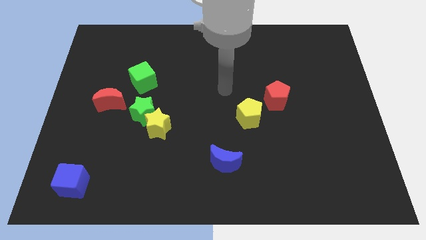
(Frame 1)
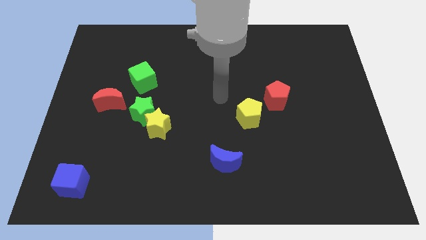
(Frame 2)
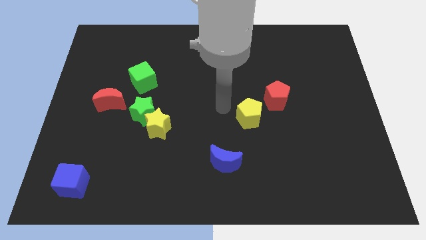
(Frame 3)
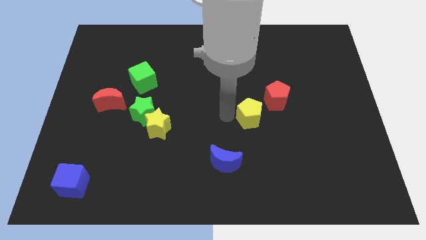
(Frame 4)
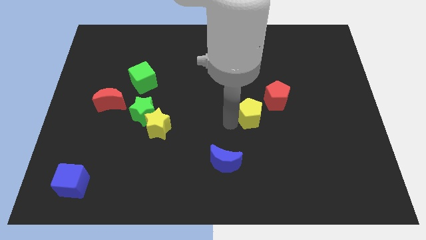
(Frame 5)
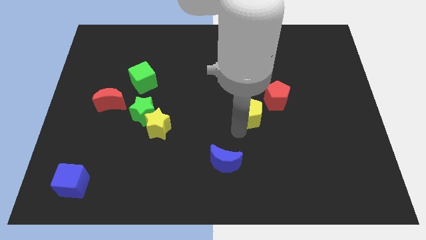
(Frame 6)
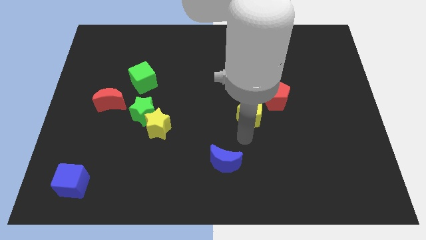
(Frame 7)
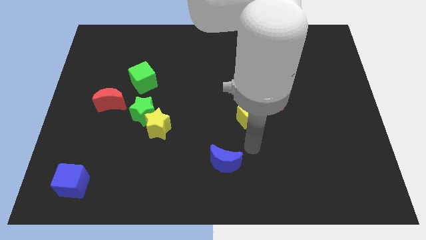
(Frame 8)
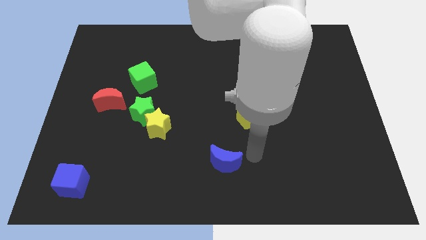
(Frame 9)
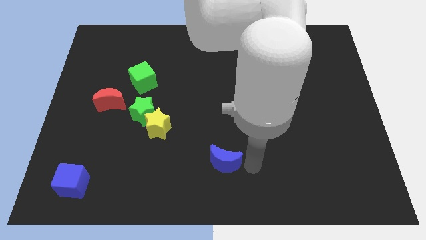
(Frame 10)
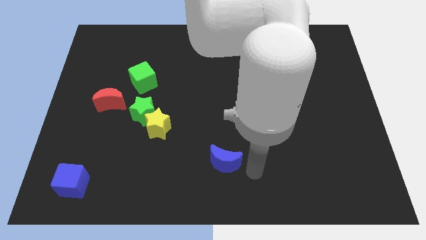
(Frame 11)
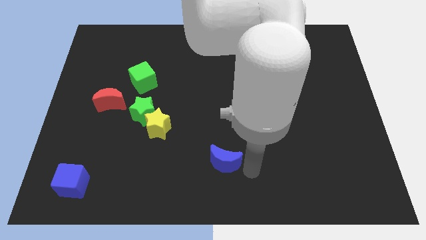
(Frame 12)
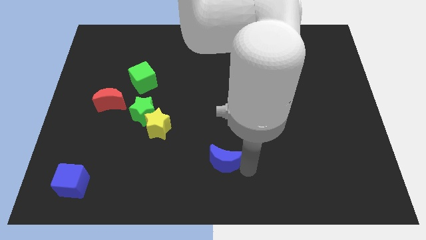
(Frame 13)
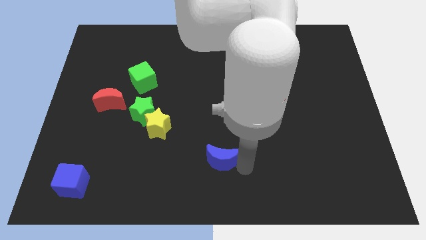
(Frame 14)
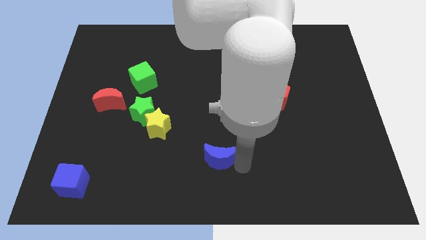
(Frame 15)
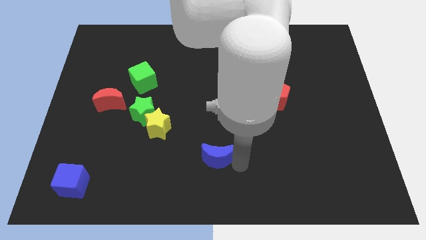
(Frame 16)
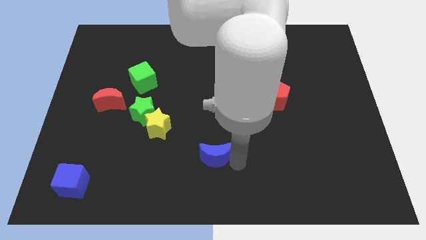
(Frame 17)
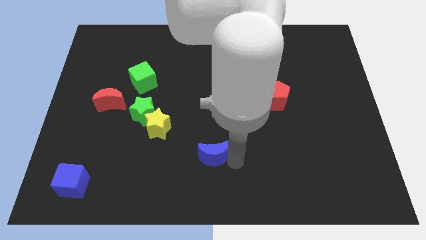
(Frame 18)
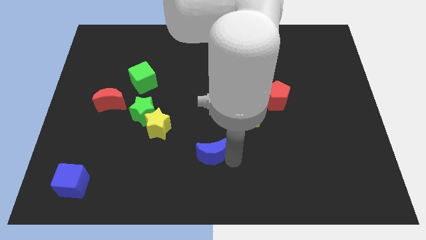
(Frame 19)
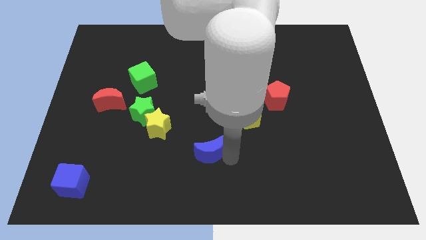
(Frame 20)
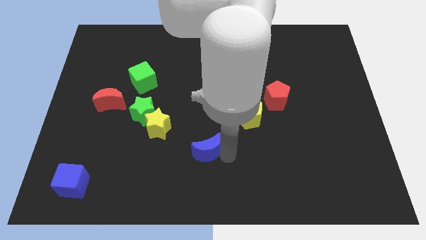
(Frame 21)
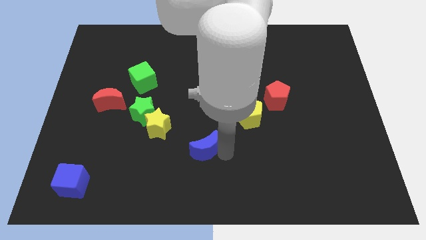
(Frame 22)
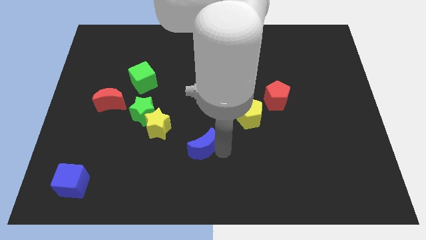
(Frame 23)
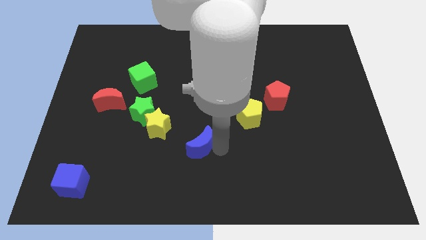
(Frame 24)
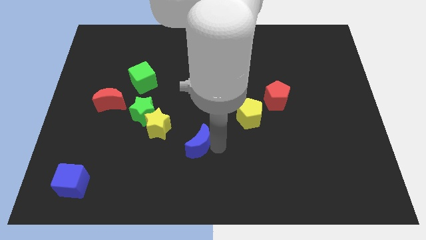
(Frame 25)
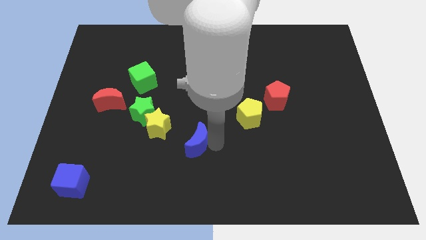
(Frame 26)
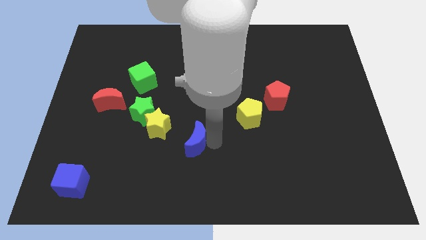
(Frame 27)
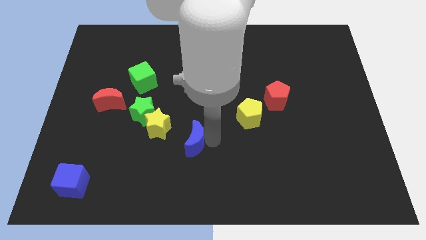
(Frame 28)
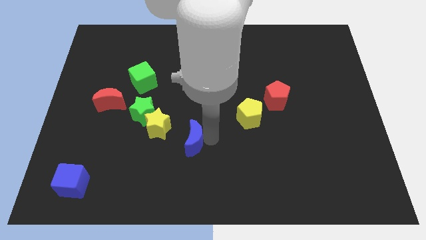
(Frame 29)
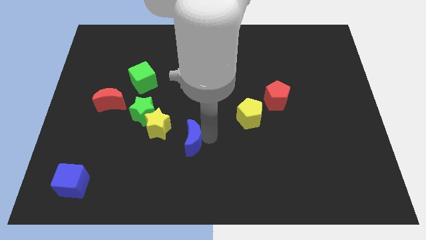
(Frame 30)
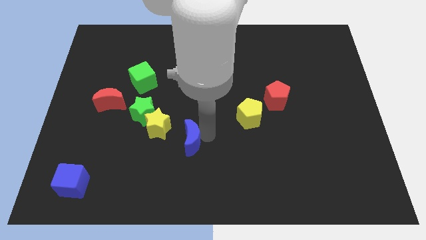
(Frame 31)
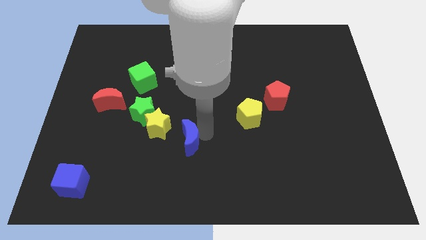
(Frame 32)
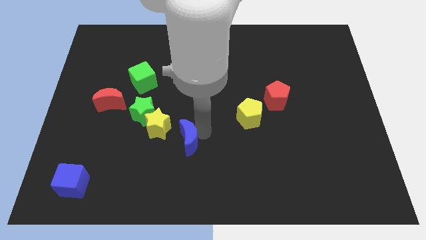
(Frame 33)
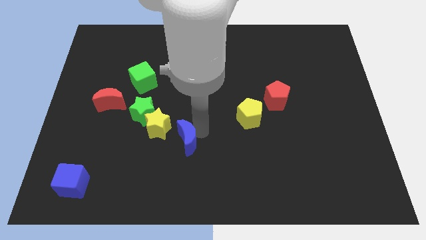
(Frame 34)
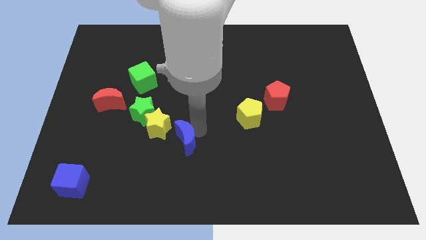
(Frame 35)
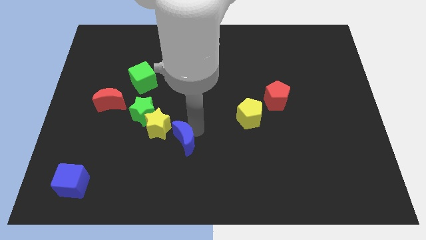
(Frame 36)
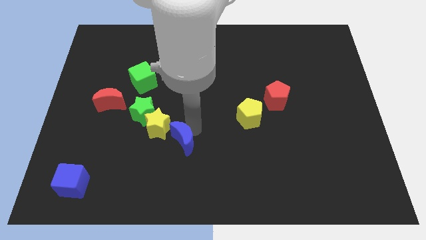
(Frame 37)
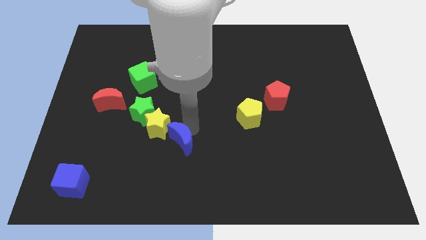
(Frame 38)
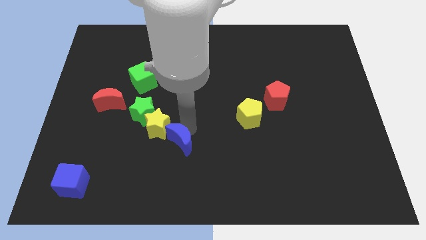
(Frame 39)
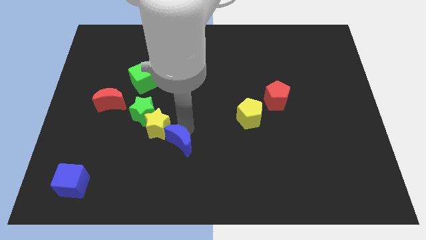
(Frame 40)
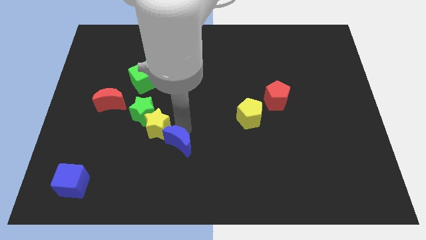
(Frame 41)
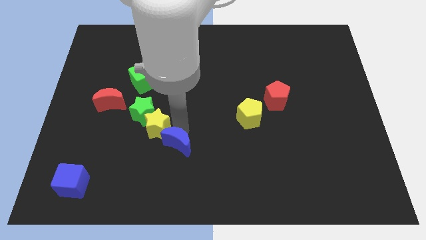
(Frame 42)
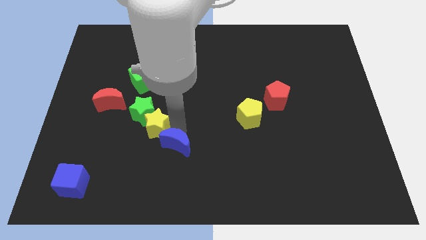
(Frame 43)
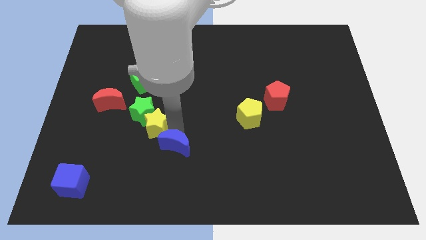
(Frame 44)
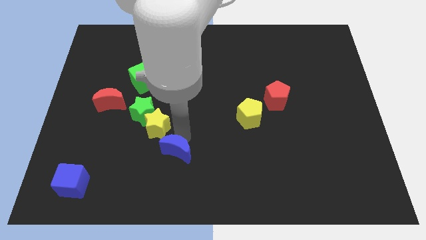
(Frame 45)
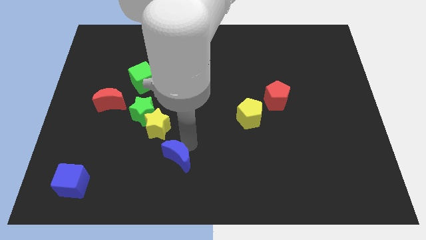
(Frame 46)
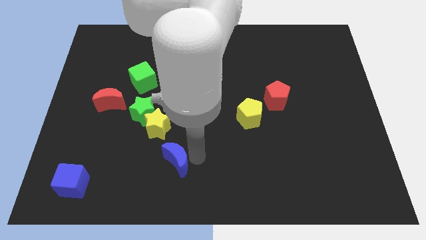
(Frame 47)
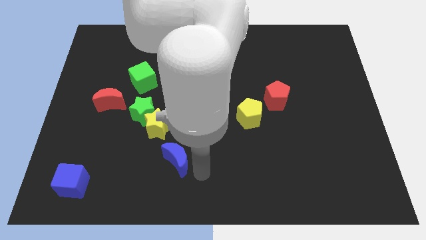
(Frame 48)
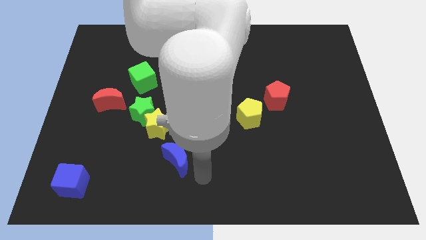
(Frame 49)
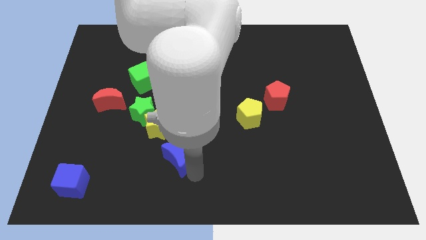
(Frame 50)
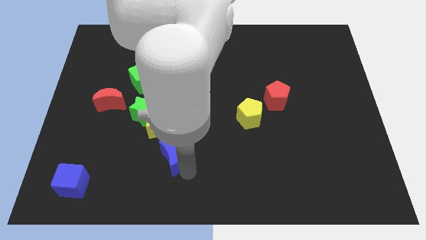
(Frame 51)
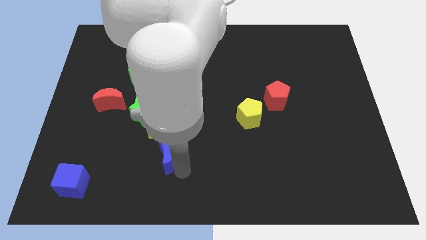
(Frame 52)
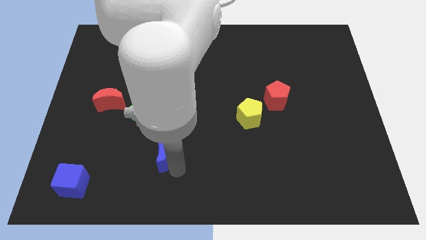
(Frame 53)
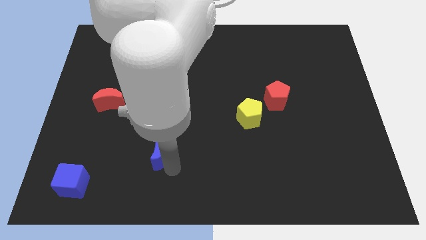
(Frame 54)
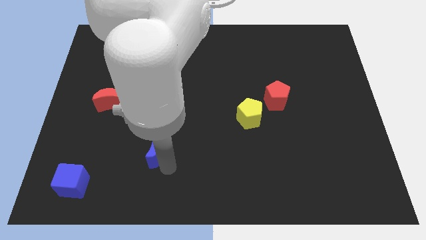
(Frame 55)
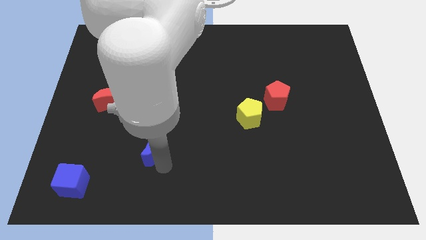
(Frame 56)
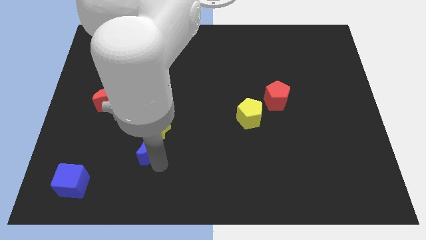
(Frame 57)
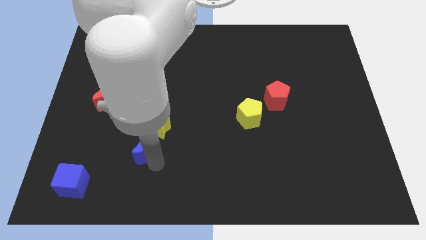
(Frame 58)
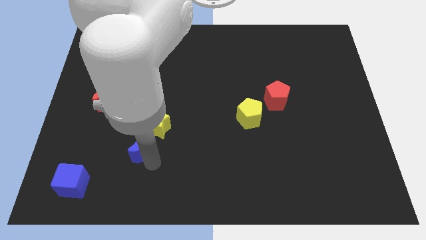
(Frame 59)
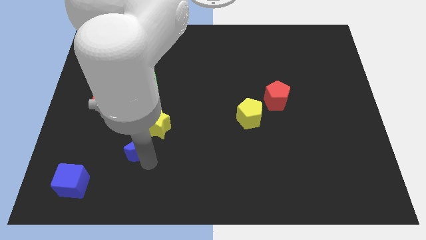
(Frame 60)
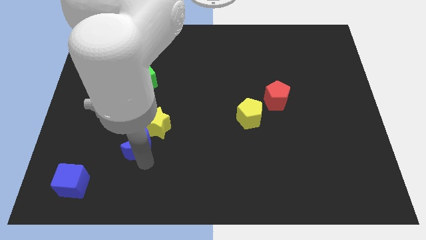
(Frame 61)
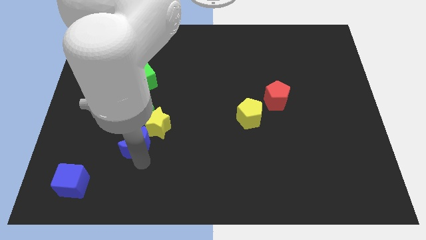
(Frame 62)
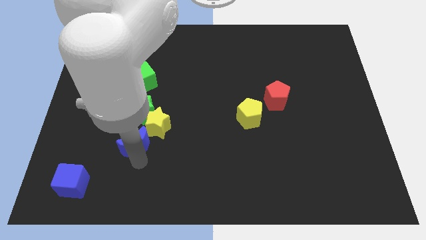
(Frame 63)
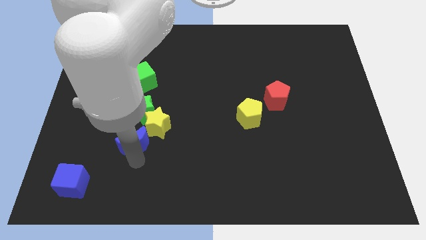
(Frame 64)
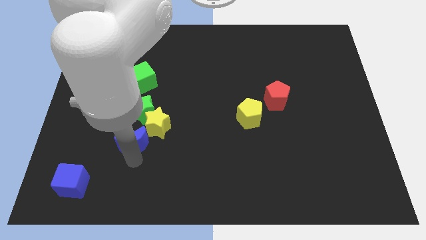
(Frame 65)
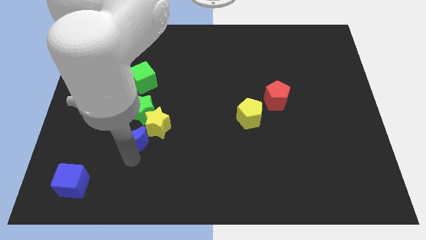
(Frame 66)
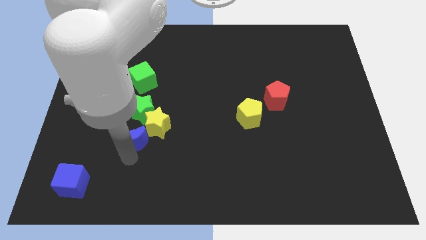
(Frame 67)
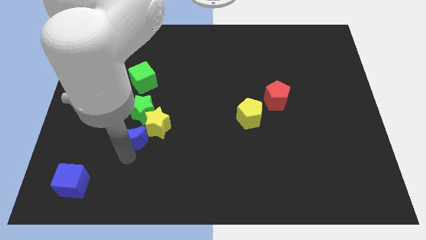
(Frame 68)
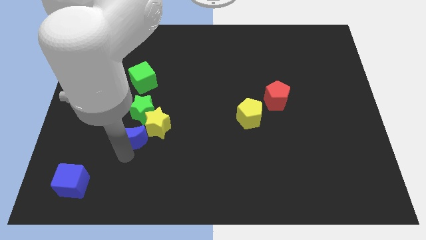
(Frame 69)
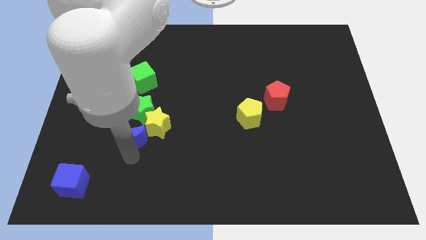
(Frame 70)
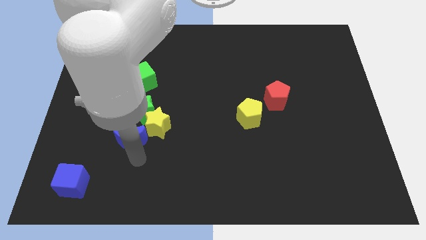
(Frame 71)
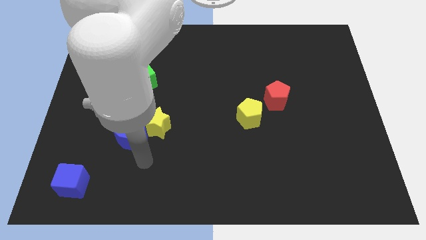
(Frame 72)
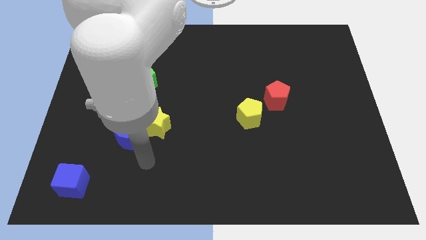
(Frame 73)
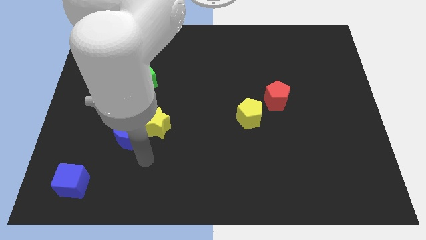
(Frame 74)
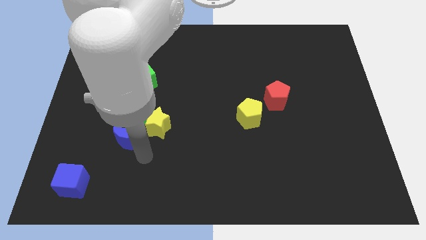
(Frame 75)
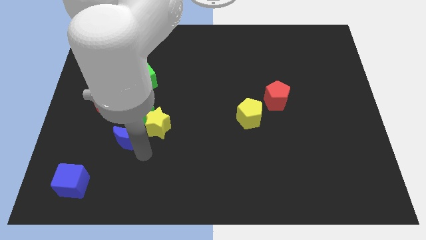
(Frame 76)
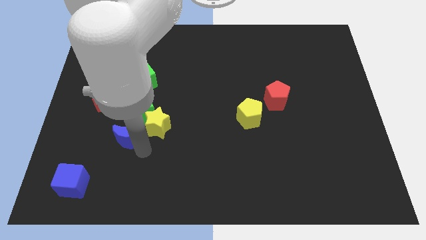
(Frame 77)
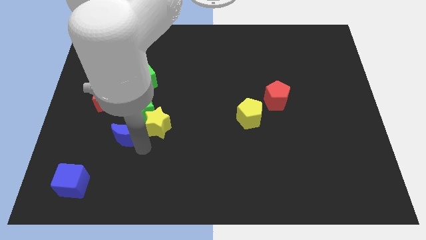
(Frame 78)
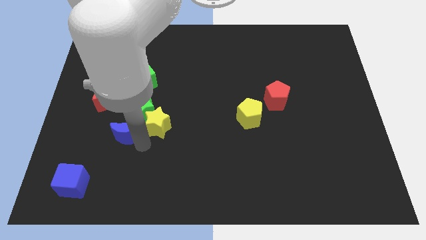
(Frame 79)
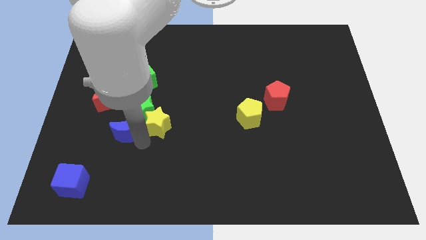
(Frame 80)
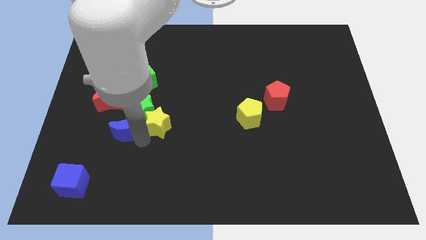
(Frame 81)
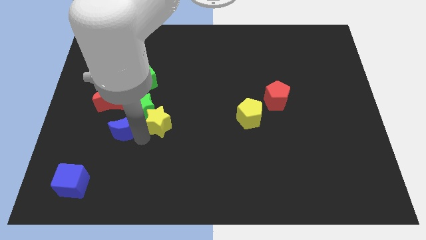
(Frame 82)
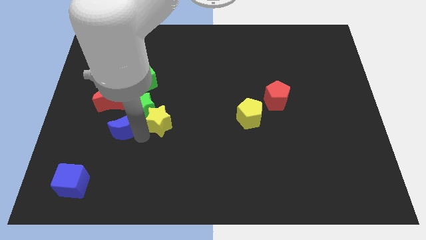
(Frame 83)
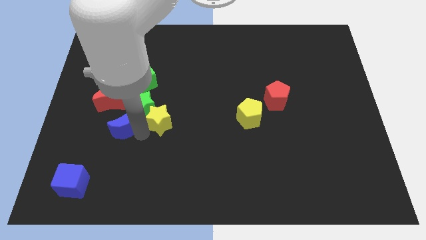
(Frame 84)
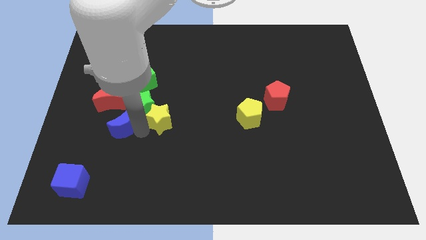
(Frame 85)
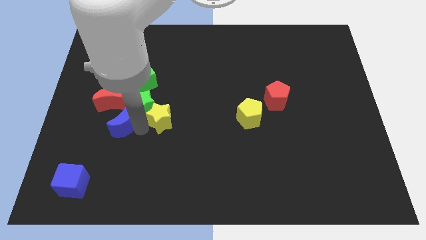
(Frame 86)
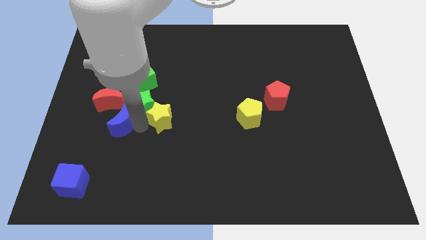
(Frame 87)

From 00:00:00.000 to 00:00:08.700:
push the blue moon to the left side of the green star
